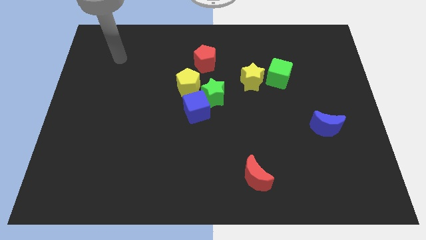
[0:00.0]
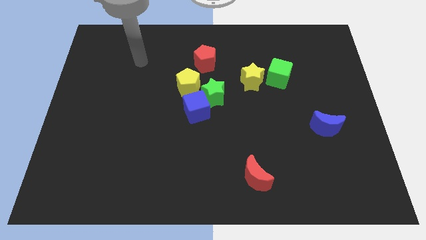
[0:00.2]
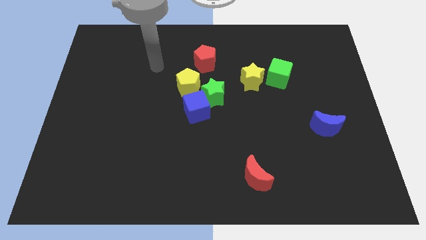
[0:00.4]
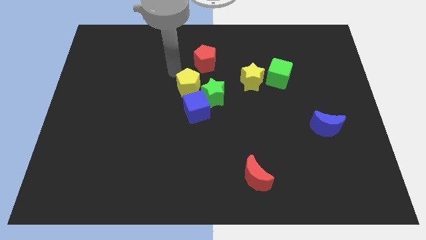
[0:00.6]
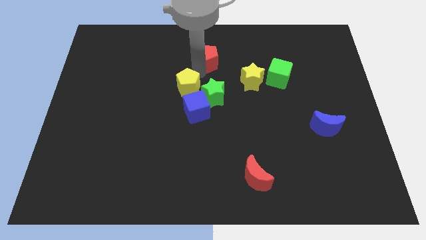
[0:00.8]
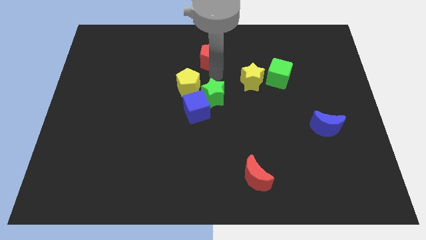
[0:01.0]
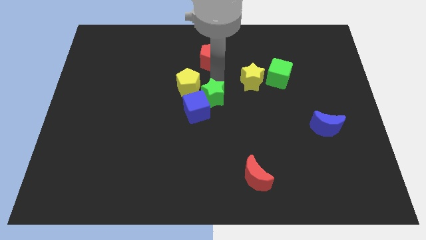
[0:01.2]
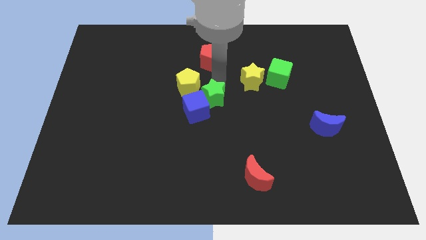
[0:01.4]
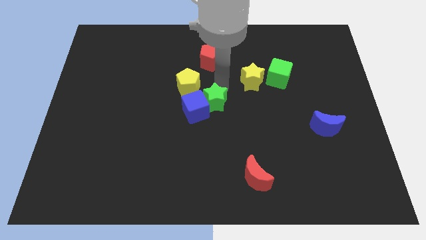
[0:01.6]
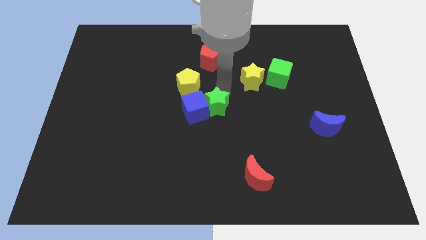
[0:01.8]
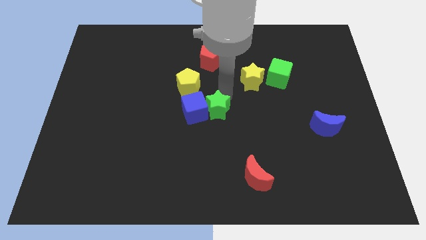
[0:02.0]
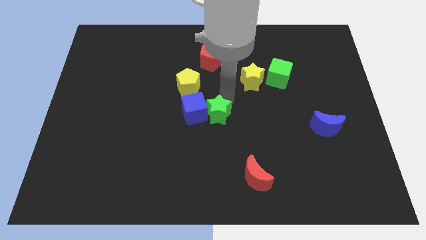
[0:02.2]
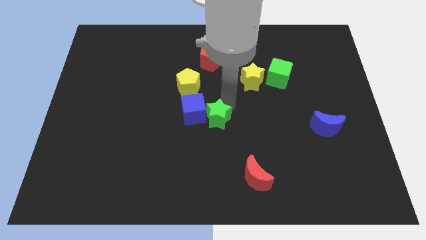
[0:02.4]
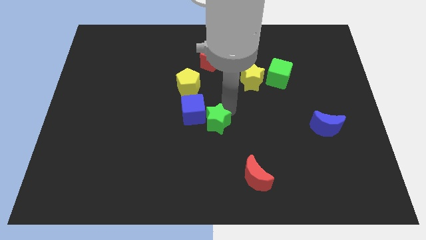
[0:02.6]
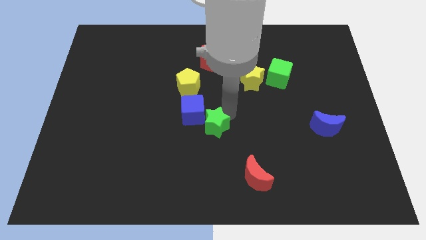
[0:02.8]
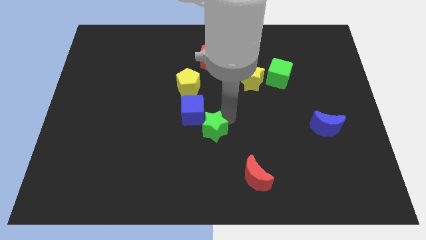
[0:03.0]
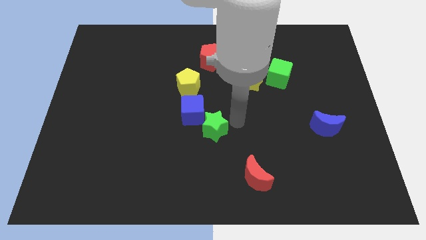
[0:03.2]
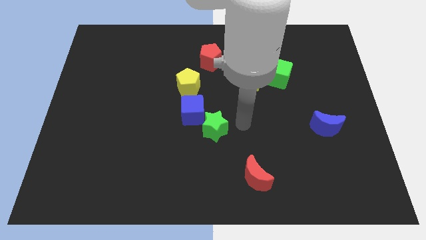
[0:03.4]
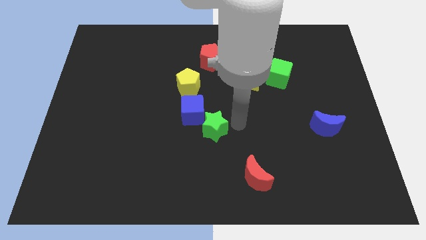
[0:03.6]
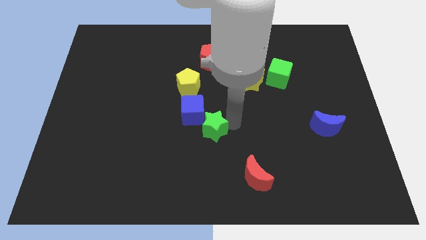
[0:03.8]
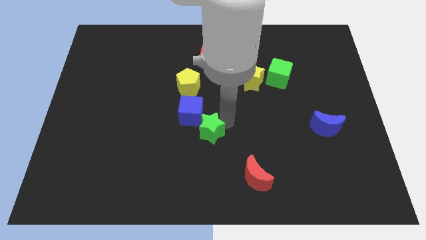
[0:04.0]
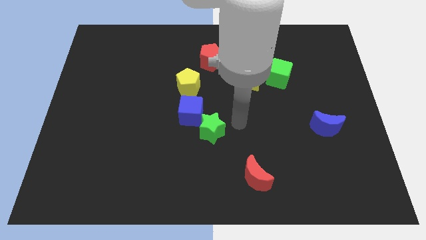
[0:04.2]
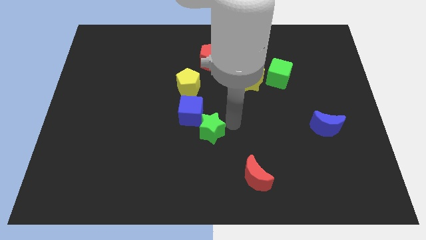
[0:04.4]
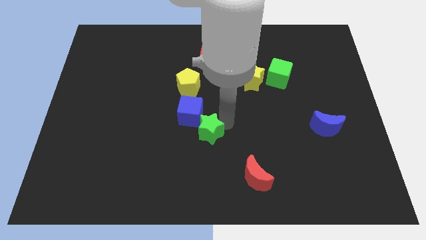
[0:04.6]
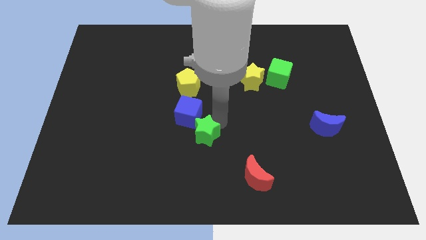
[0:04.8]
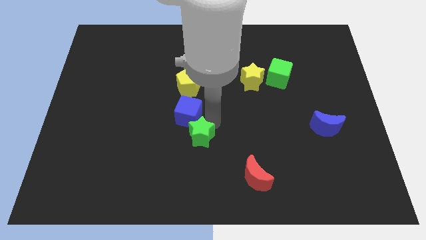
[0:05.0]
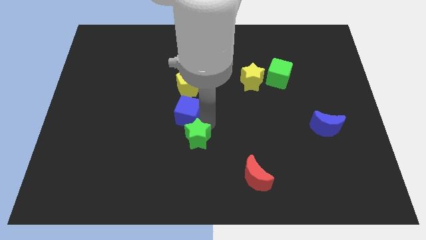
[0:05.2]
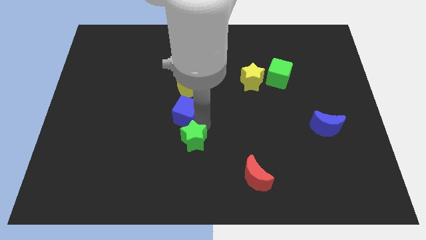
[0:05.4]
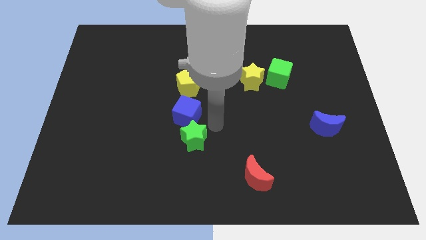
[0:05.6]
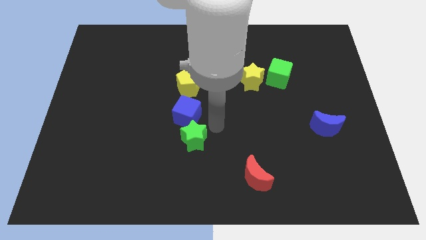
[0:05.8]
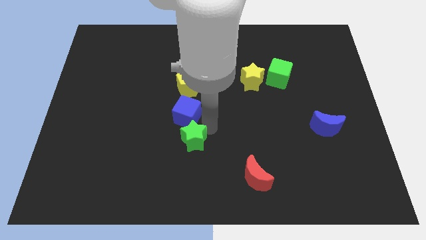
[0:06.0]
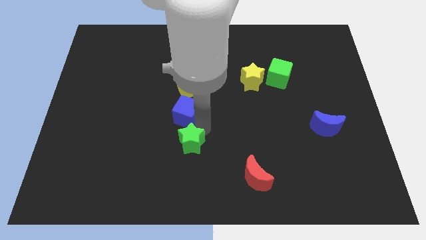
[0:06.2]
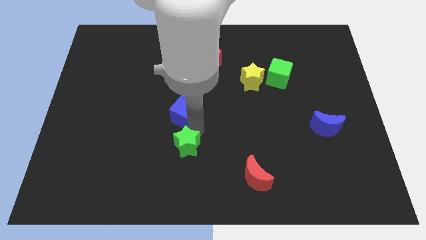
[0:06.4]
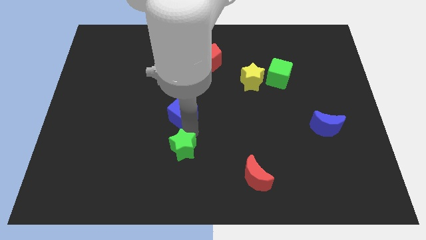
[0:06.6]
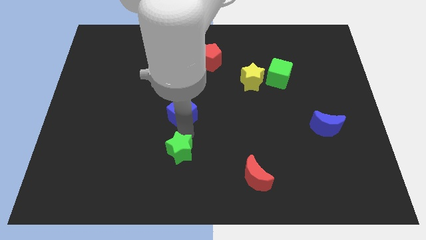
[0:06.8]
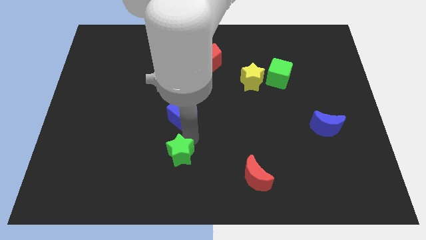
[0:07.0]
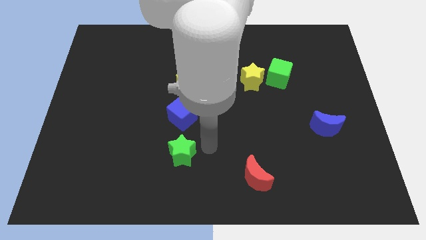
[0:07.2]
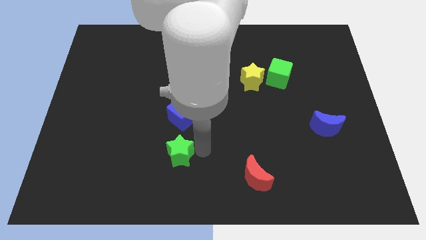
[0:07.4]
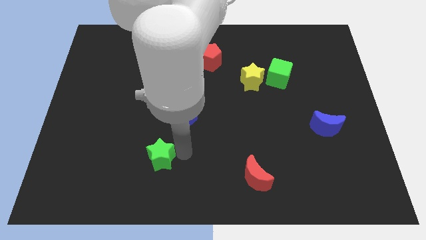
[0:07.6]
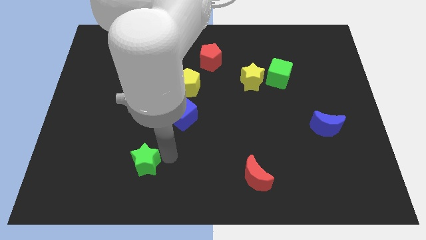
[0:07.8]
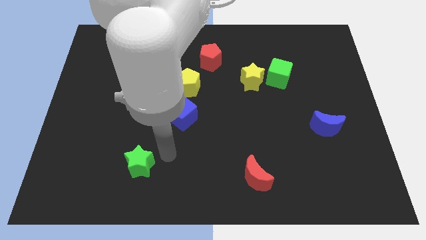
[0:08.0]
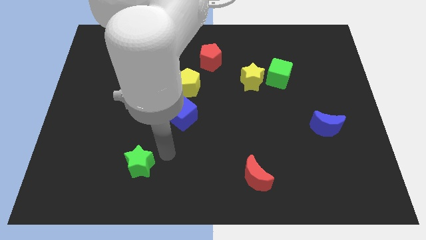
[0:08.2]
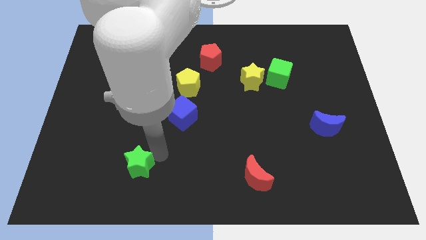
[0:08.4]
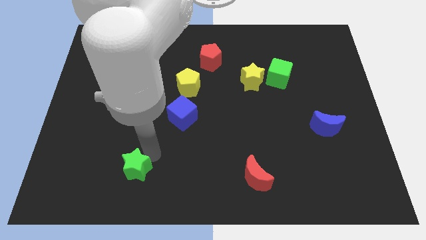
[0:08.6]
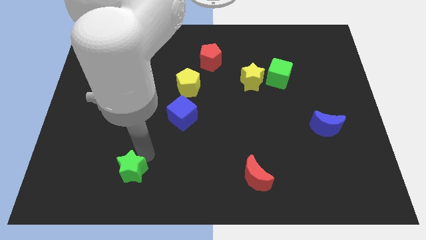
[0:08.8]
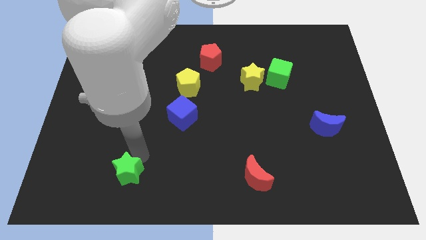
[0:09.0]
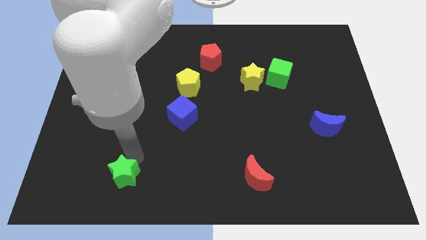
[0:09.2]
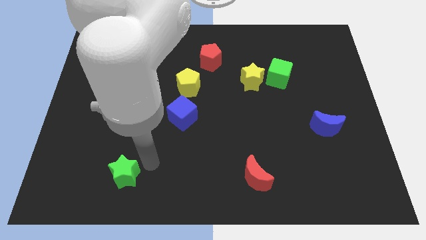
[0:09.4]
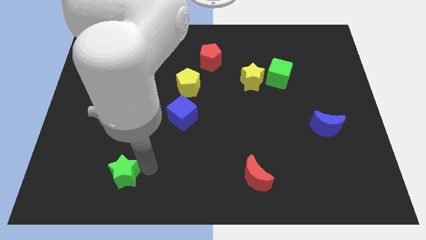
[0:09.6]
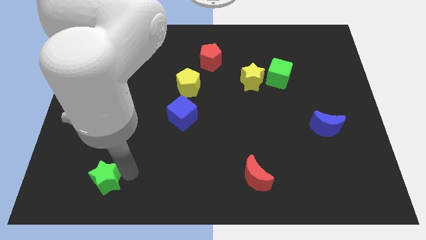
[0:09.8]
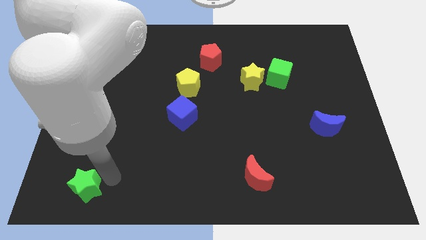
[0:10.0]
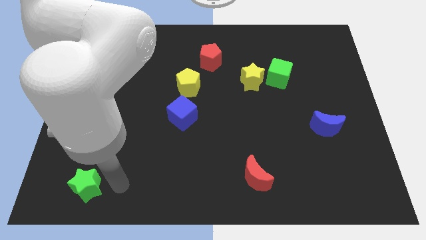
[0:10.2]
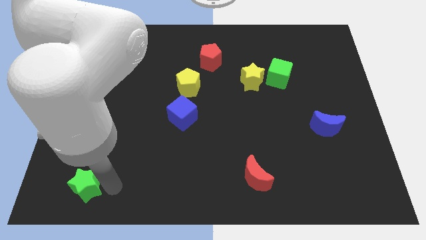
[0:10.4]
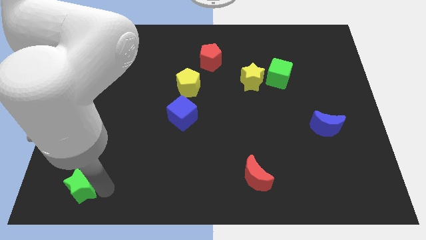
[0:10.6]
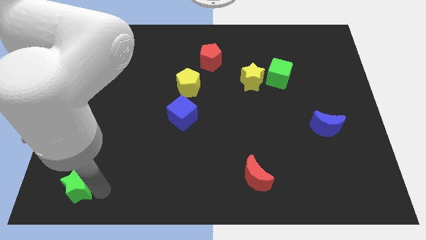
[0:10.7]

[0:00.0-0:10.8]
move the green star to the bottom left

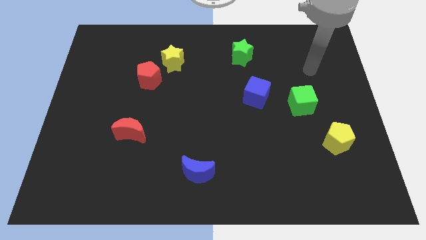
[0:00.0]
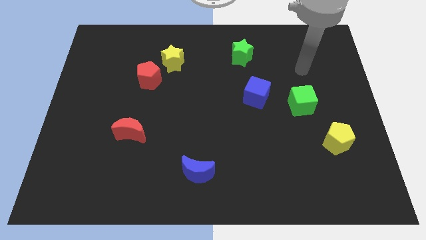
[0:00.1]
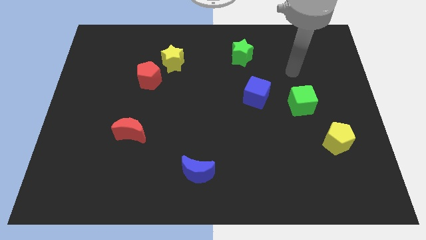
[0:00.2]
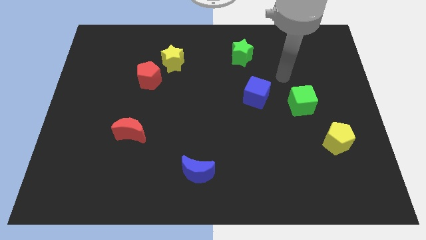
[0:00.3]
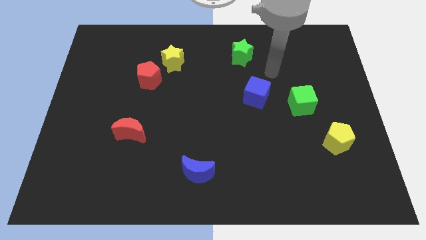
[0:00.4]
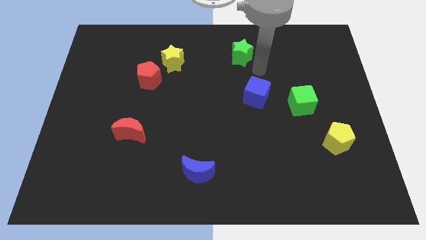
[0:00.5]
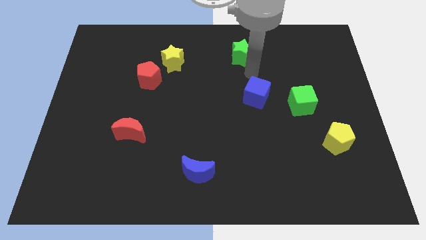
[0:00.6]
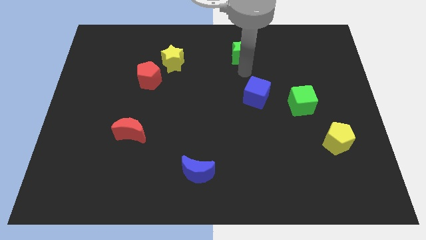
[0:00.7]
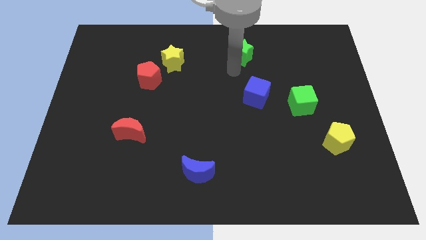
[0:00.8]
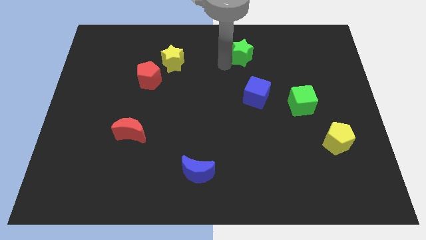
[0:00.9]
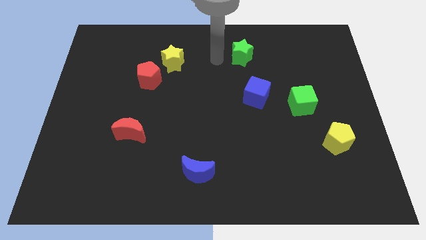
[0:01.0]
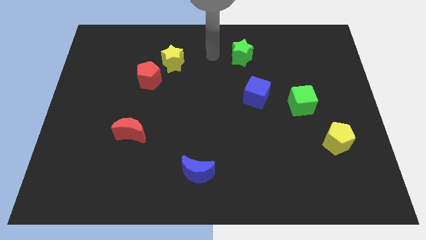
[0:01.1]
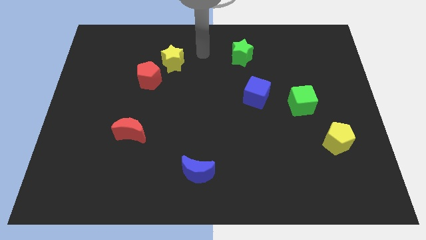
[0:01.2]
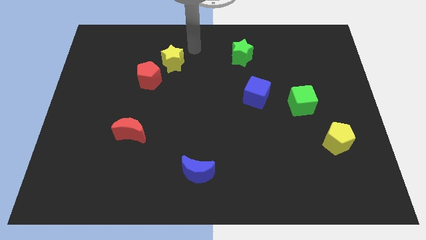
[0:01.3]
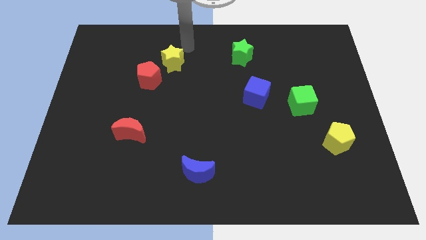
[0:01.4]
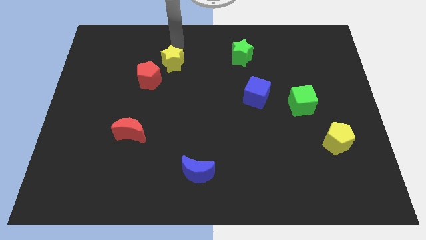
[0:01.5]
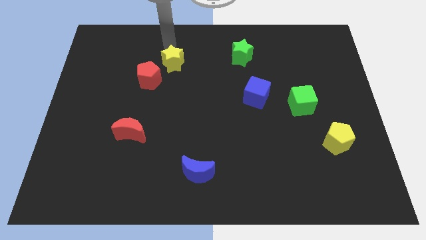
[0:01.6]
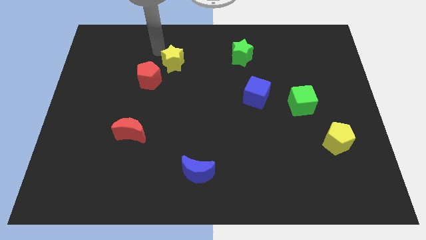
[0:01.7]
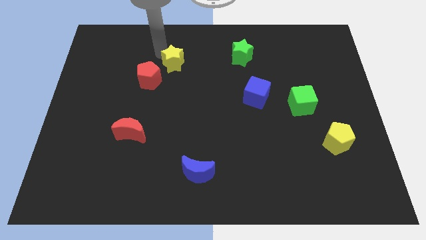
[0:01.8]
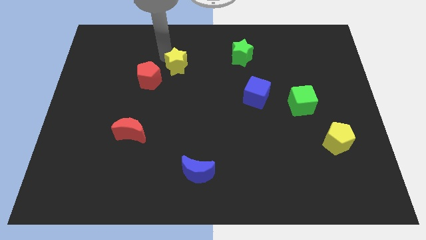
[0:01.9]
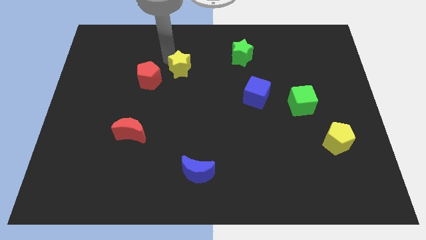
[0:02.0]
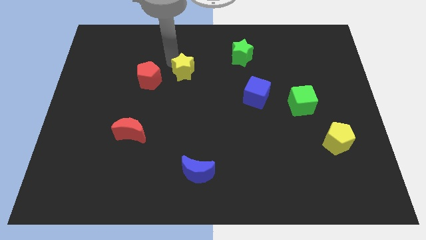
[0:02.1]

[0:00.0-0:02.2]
slide the yellow star to the center
